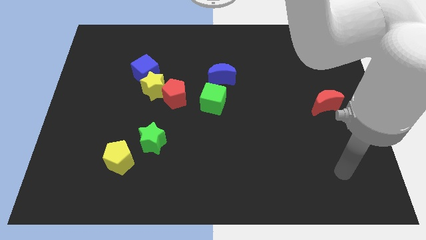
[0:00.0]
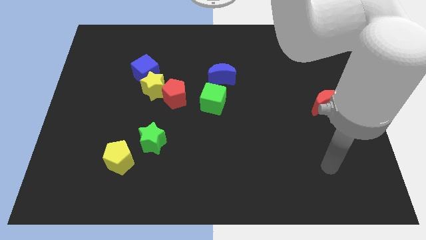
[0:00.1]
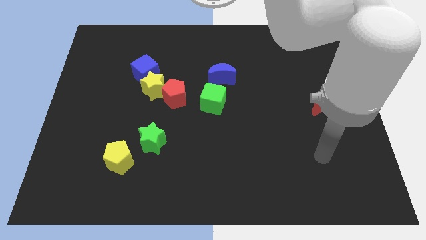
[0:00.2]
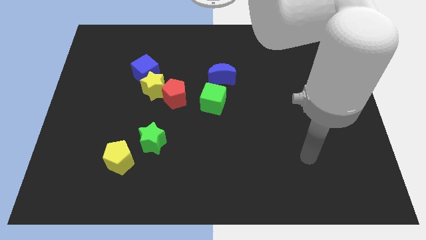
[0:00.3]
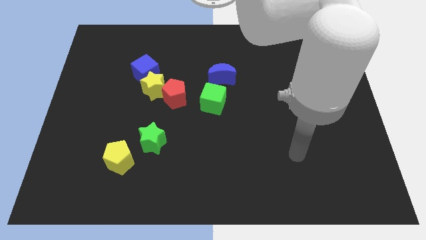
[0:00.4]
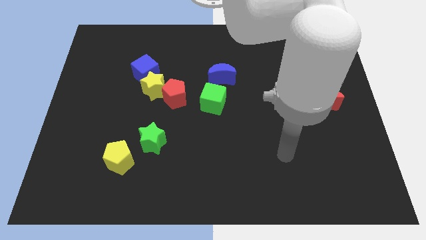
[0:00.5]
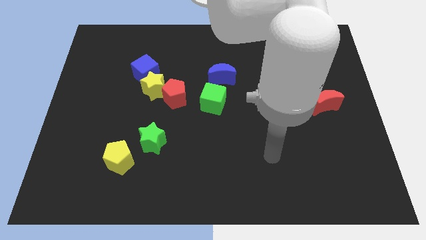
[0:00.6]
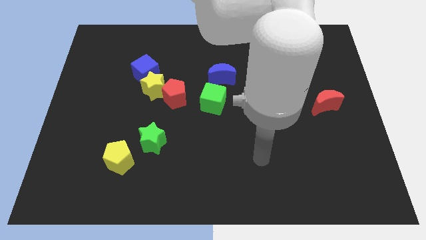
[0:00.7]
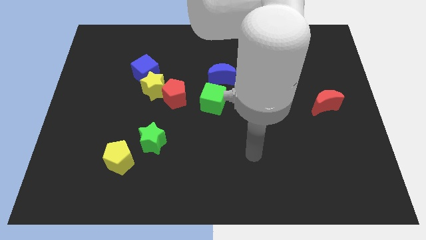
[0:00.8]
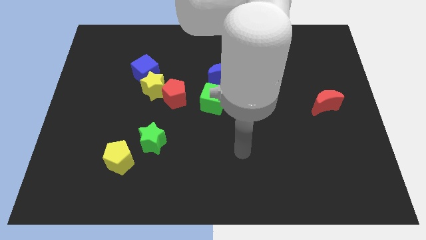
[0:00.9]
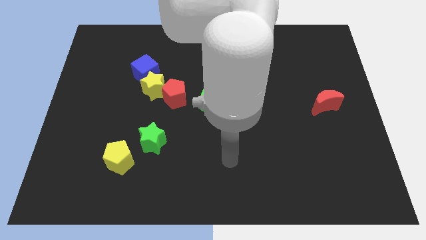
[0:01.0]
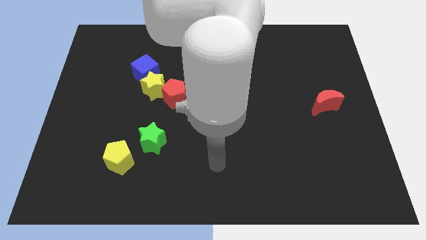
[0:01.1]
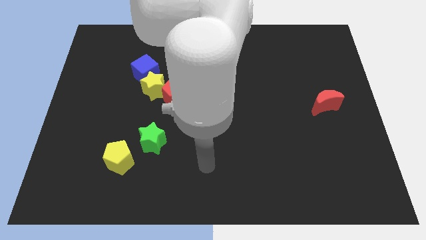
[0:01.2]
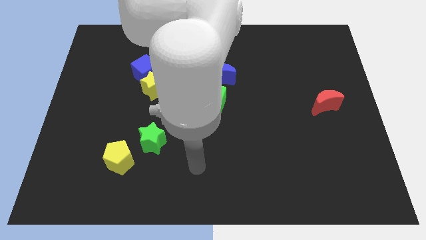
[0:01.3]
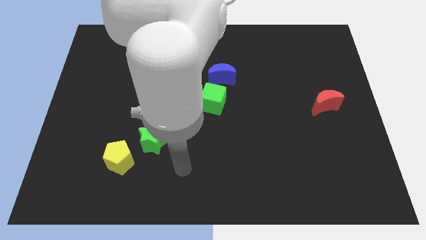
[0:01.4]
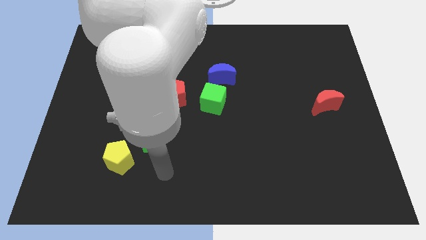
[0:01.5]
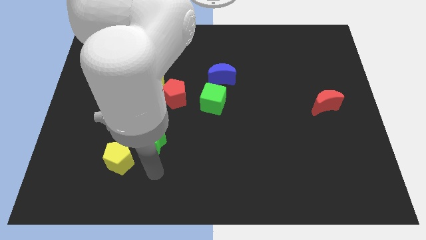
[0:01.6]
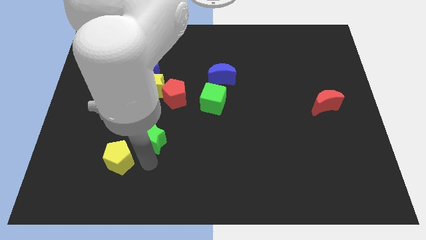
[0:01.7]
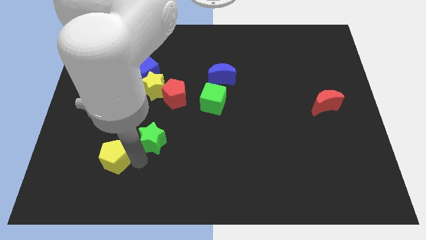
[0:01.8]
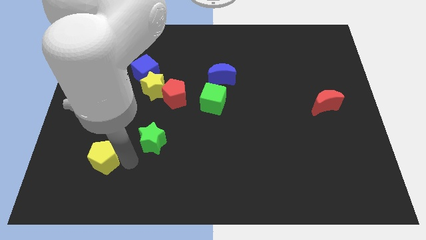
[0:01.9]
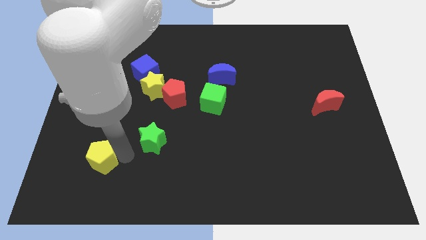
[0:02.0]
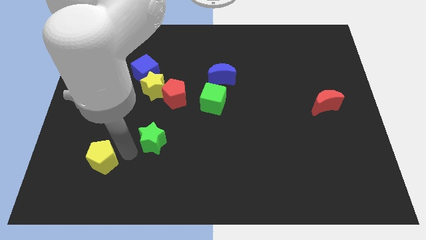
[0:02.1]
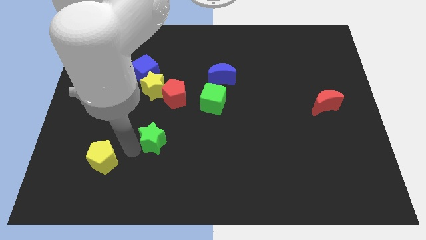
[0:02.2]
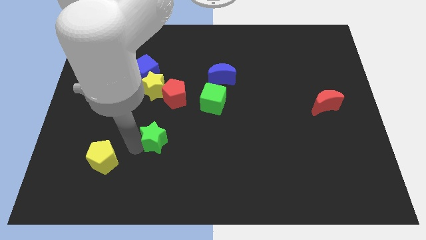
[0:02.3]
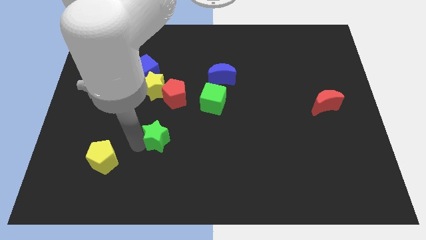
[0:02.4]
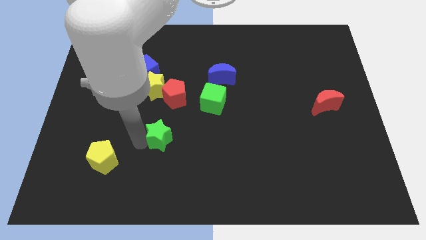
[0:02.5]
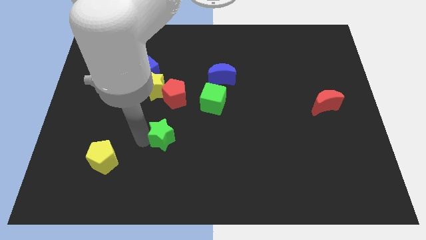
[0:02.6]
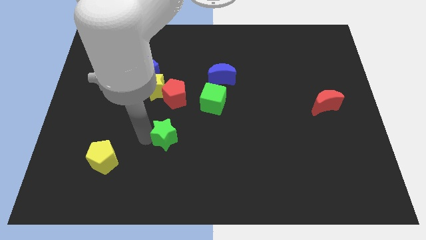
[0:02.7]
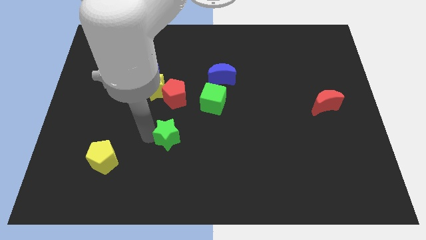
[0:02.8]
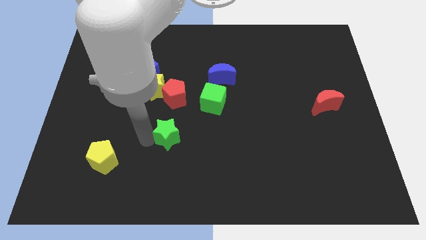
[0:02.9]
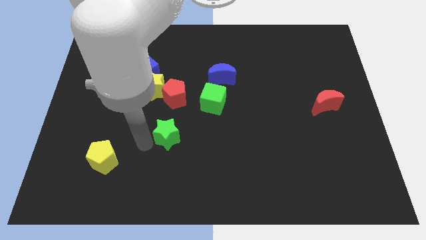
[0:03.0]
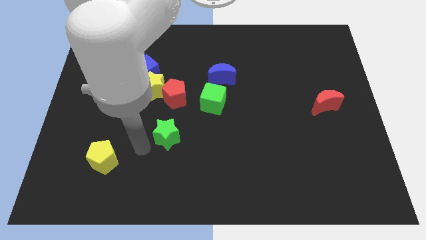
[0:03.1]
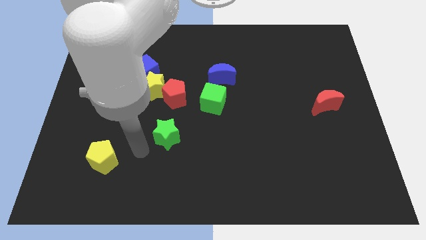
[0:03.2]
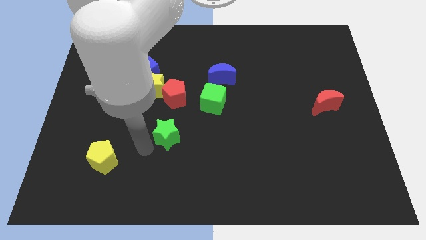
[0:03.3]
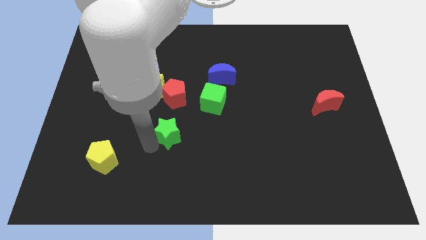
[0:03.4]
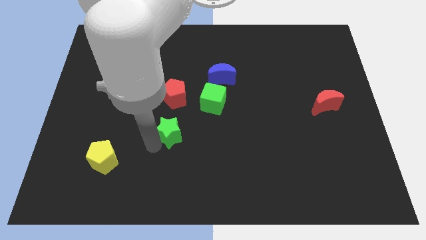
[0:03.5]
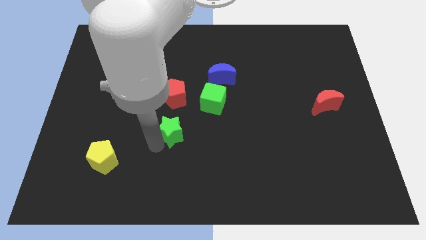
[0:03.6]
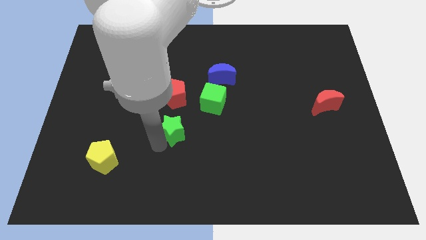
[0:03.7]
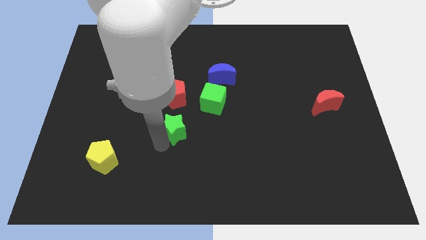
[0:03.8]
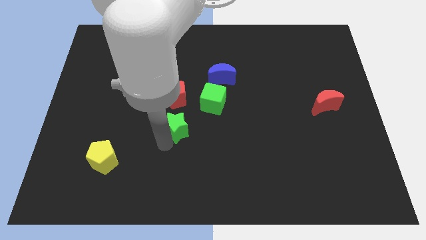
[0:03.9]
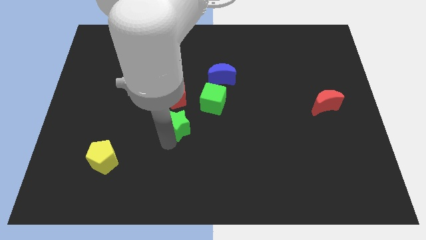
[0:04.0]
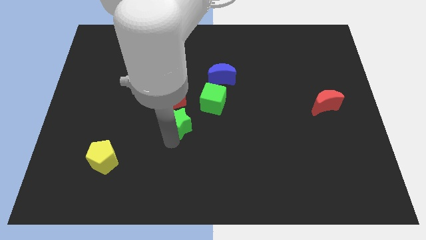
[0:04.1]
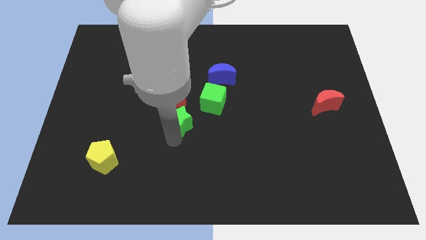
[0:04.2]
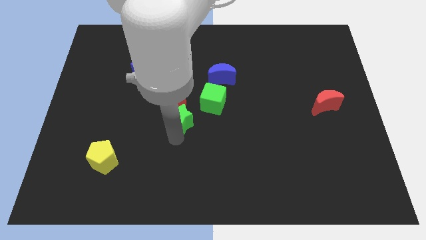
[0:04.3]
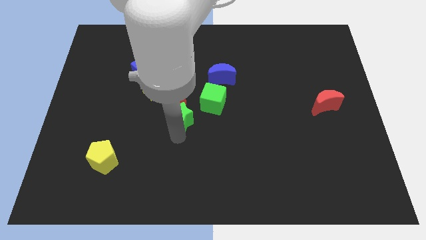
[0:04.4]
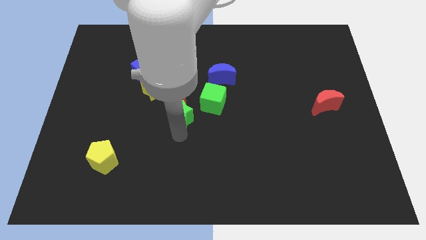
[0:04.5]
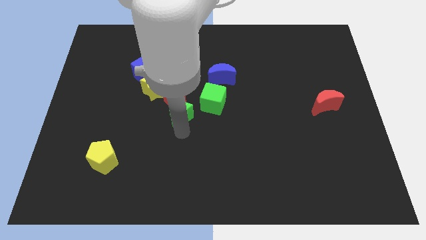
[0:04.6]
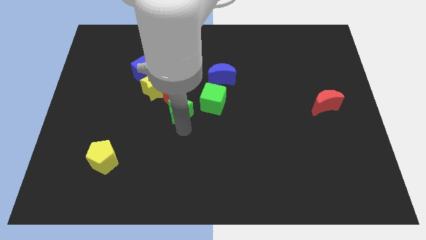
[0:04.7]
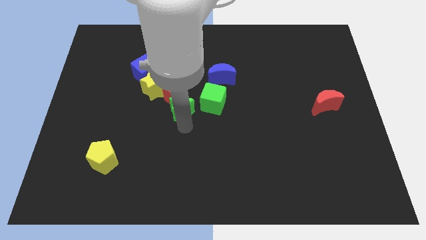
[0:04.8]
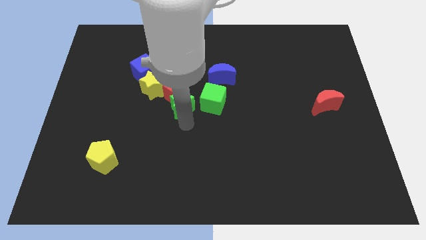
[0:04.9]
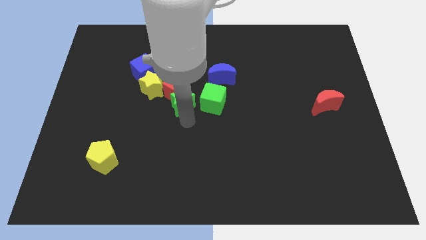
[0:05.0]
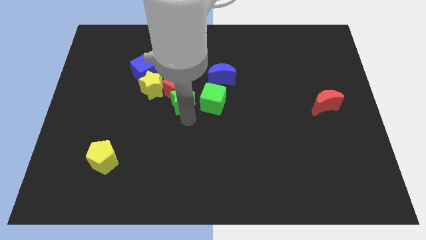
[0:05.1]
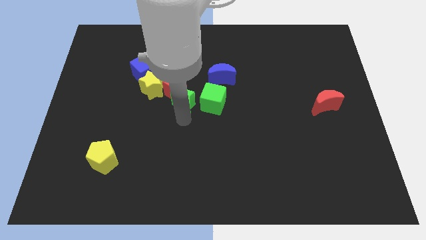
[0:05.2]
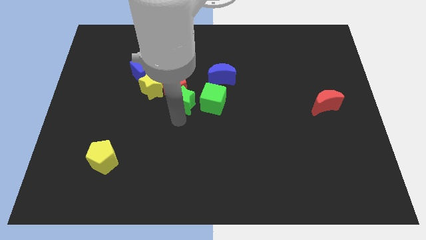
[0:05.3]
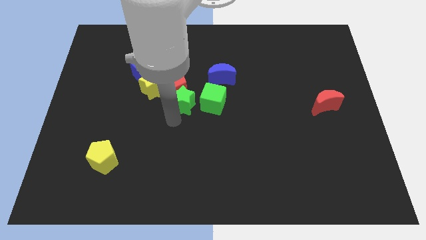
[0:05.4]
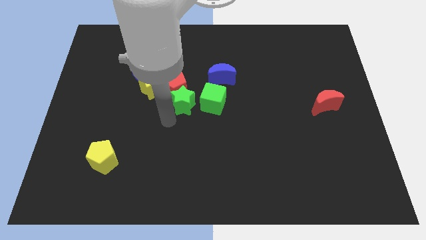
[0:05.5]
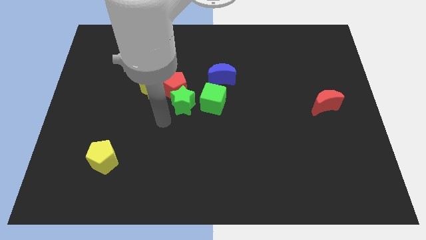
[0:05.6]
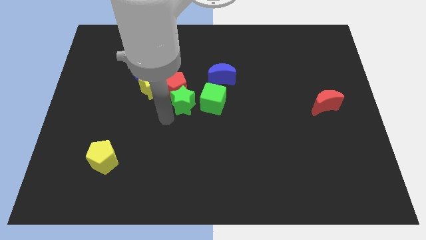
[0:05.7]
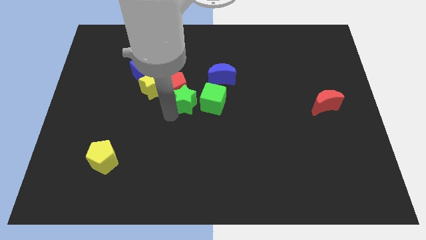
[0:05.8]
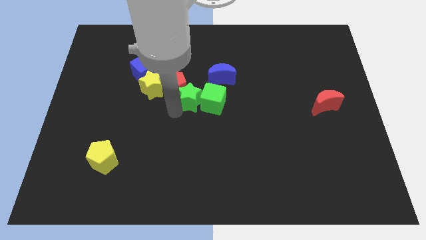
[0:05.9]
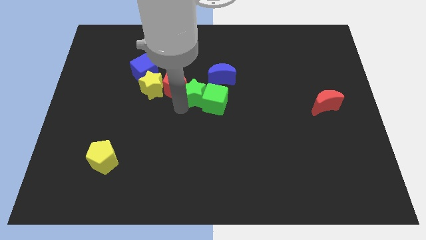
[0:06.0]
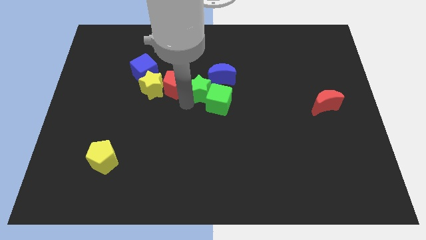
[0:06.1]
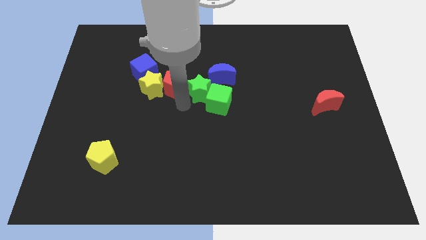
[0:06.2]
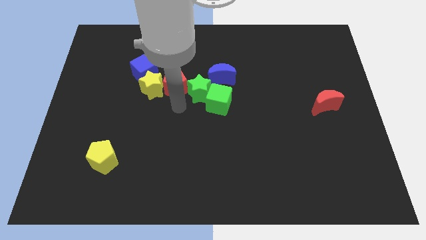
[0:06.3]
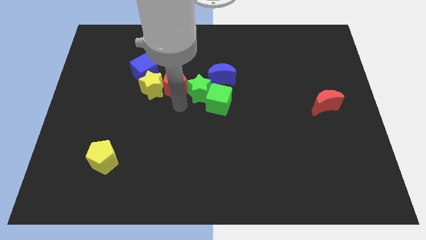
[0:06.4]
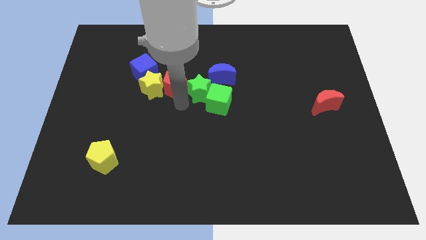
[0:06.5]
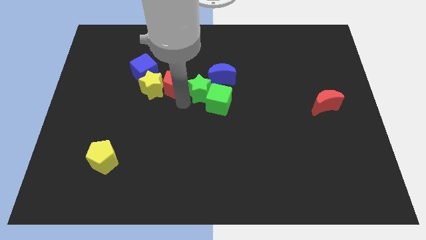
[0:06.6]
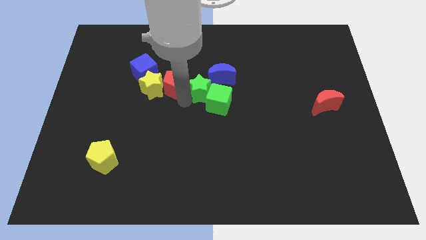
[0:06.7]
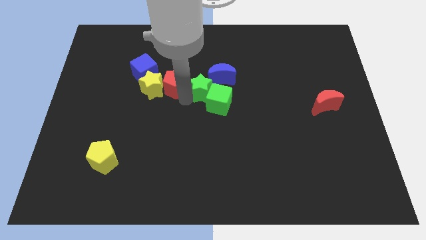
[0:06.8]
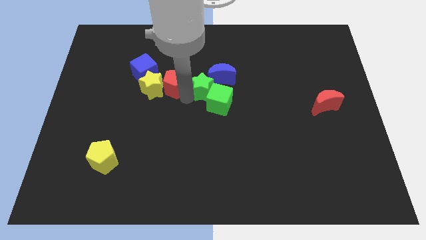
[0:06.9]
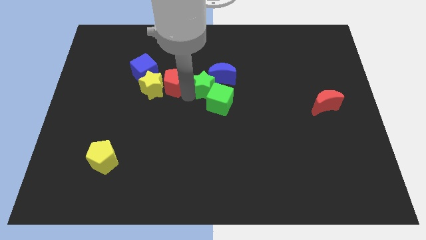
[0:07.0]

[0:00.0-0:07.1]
move the green star to the blue moon
